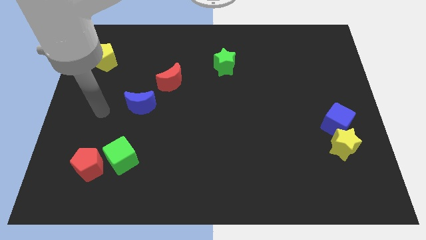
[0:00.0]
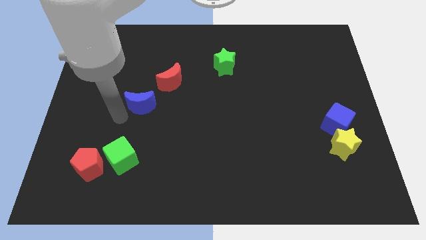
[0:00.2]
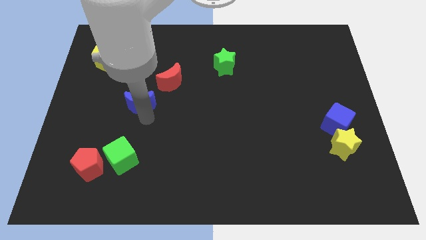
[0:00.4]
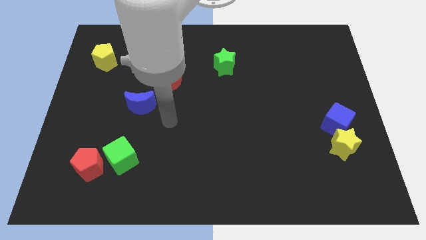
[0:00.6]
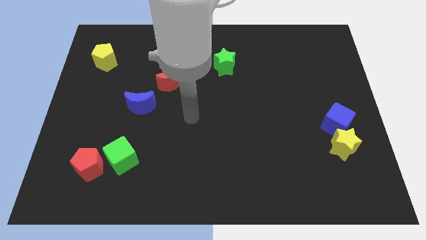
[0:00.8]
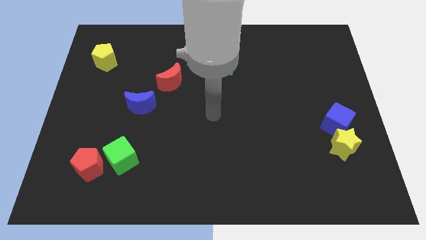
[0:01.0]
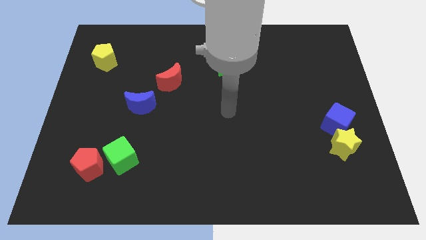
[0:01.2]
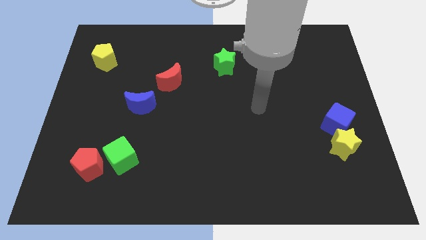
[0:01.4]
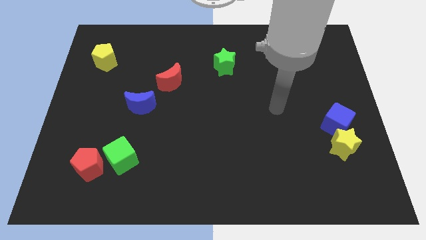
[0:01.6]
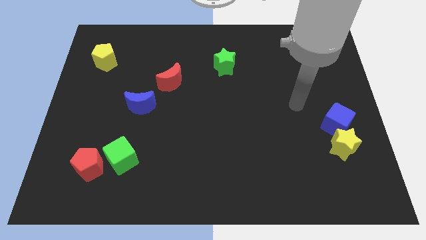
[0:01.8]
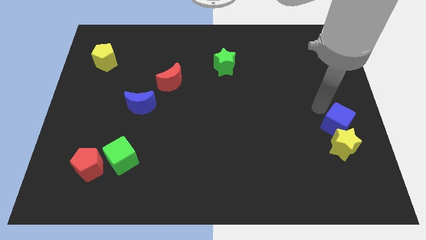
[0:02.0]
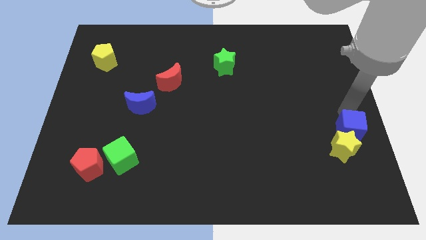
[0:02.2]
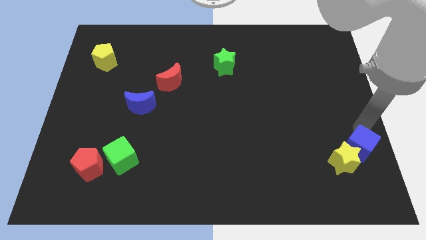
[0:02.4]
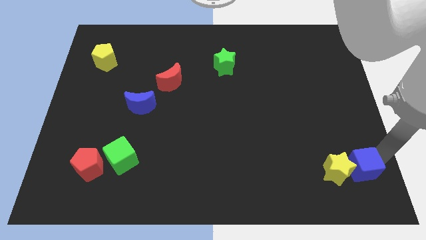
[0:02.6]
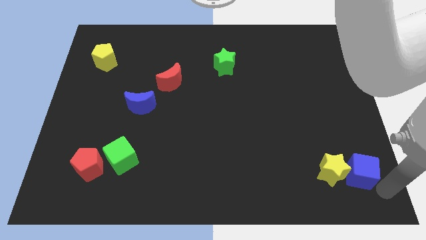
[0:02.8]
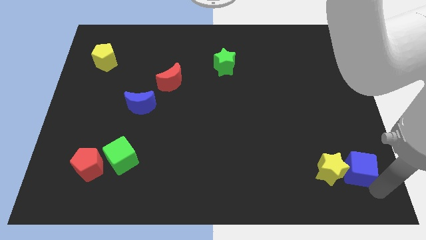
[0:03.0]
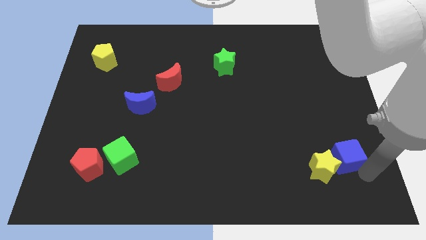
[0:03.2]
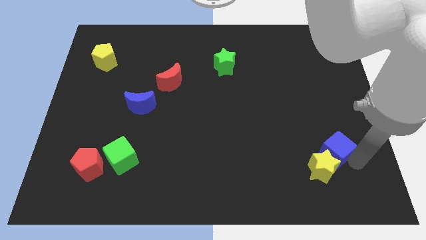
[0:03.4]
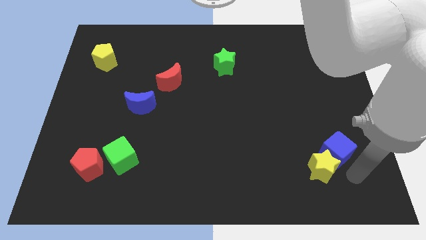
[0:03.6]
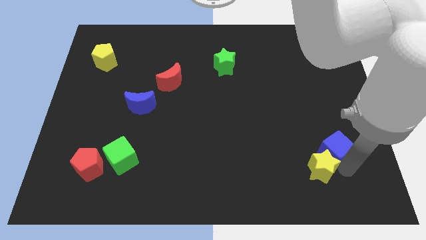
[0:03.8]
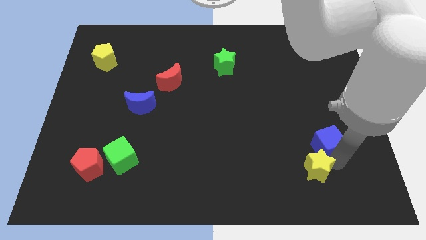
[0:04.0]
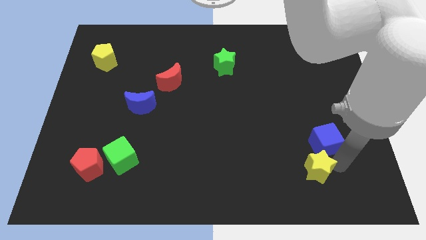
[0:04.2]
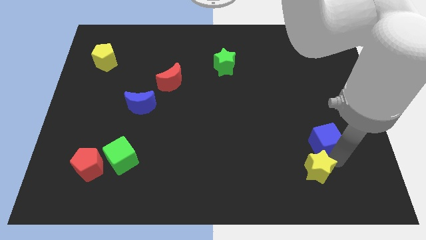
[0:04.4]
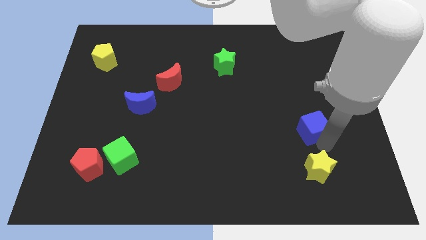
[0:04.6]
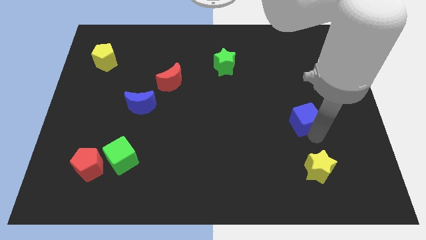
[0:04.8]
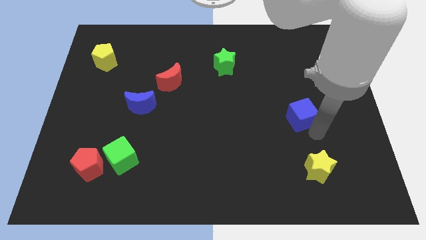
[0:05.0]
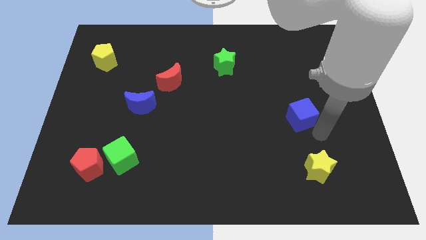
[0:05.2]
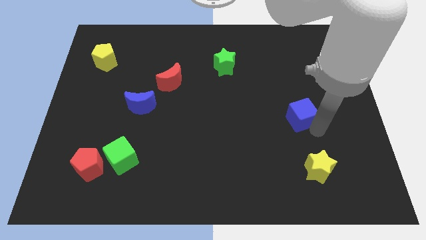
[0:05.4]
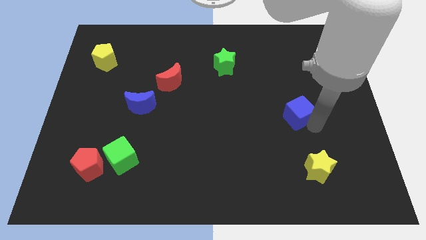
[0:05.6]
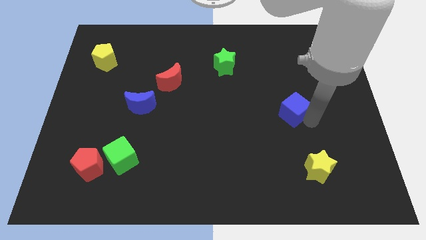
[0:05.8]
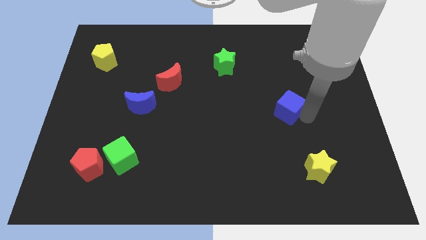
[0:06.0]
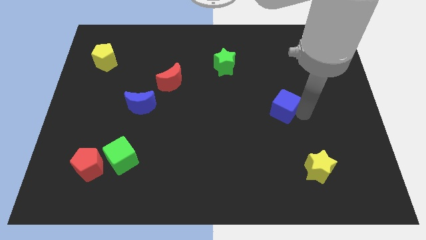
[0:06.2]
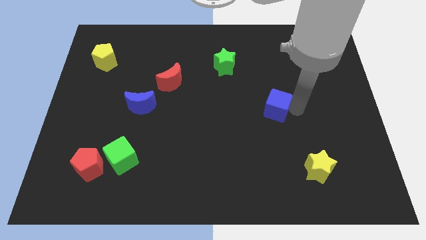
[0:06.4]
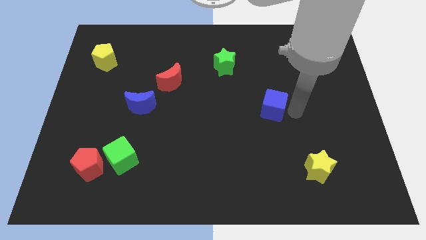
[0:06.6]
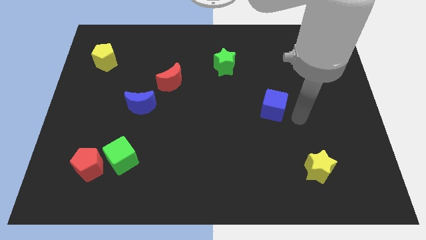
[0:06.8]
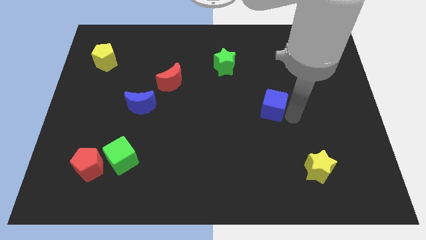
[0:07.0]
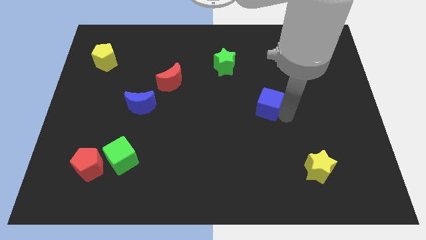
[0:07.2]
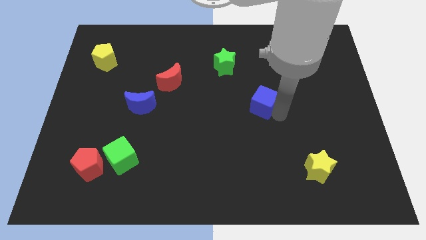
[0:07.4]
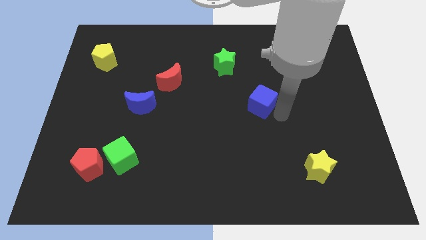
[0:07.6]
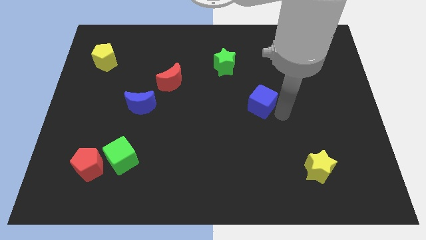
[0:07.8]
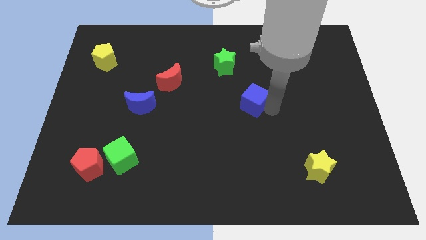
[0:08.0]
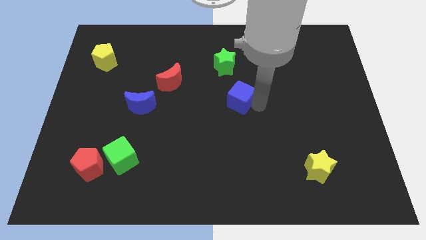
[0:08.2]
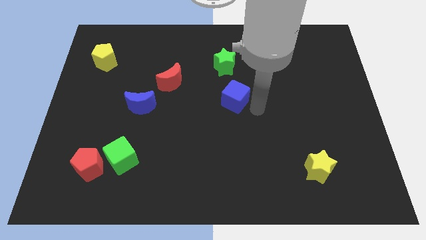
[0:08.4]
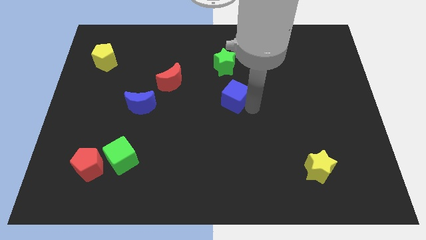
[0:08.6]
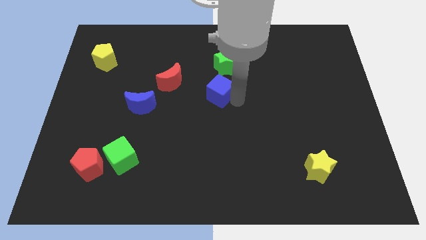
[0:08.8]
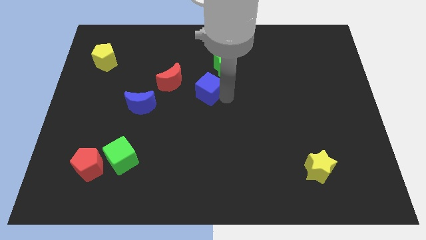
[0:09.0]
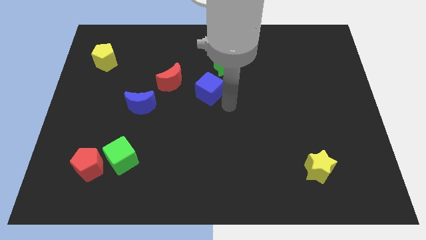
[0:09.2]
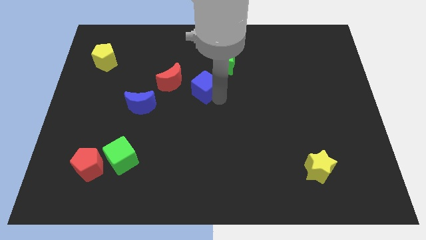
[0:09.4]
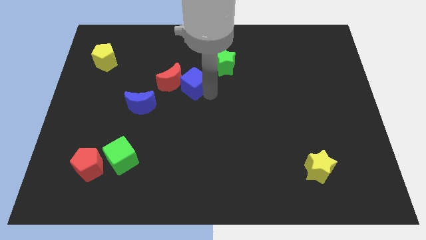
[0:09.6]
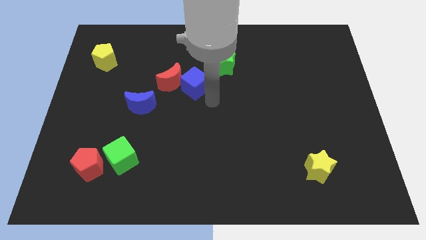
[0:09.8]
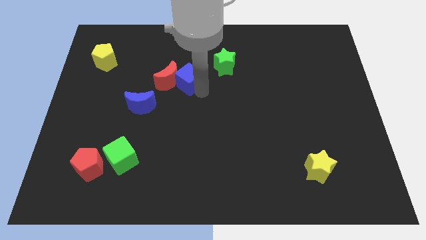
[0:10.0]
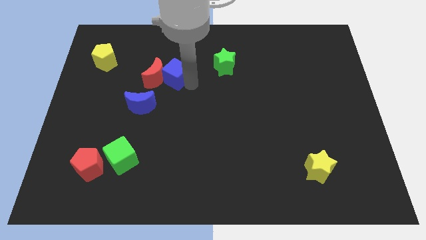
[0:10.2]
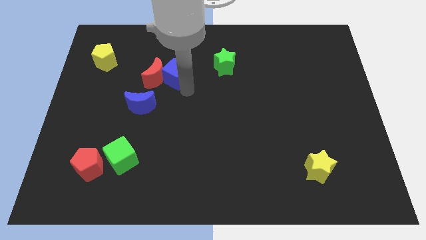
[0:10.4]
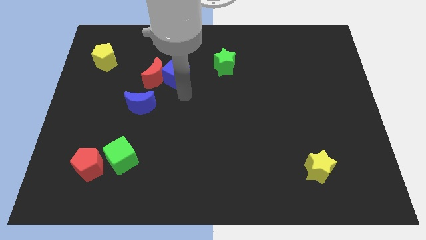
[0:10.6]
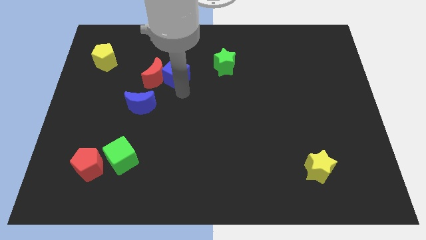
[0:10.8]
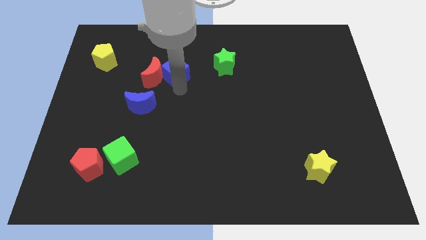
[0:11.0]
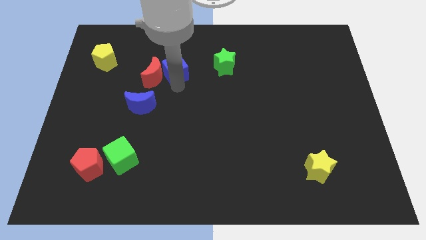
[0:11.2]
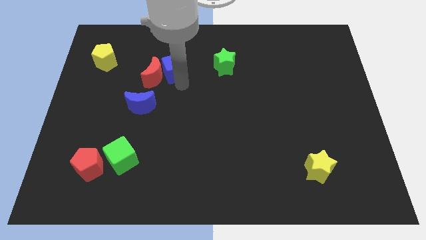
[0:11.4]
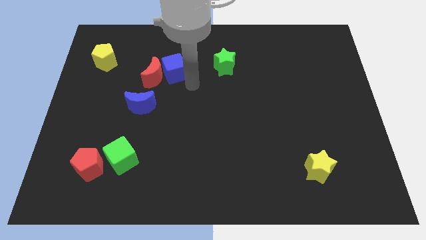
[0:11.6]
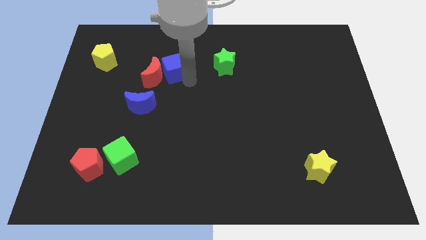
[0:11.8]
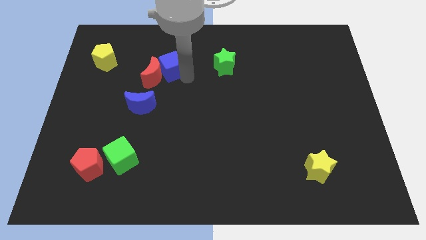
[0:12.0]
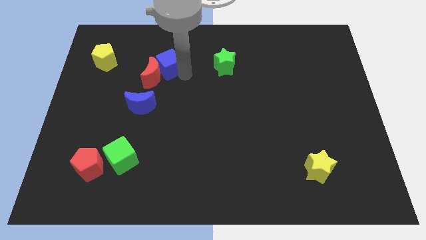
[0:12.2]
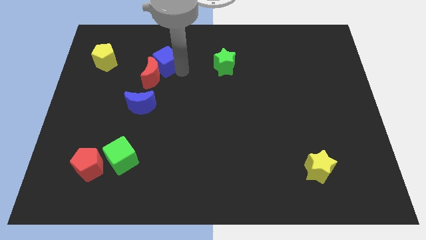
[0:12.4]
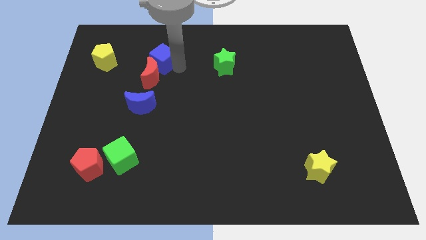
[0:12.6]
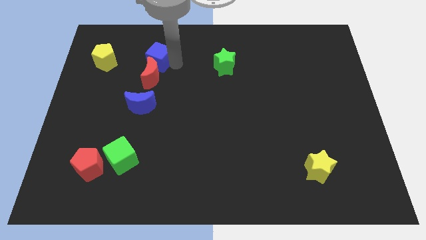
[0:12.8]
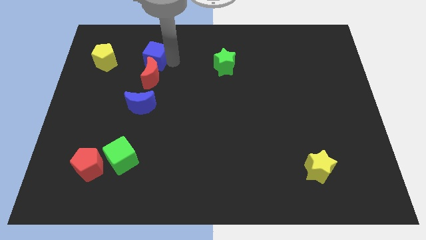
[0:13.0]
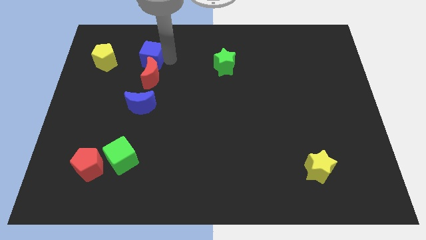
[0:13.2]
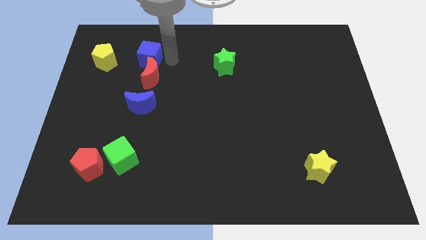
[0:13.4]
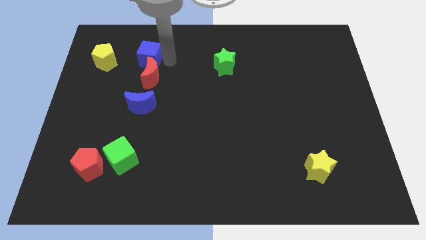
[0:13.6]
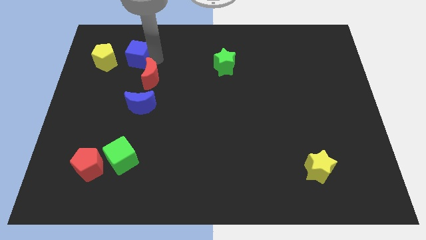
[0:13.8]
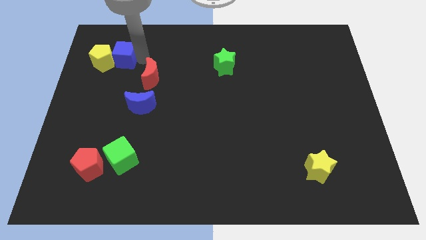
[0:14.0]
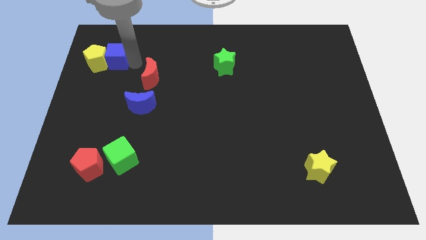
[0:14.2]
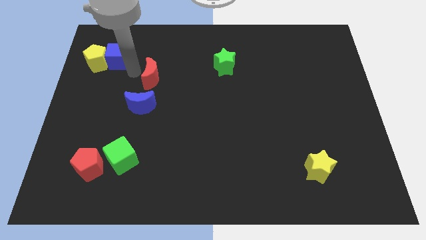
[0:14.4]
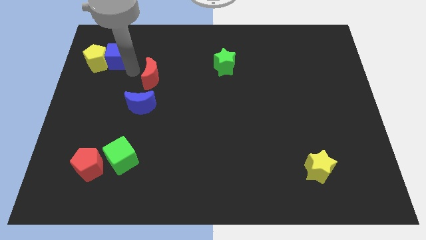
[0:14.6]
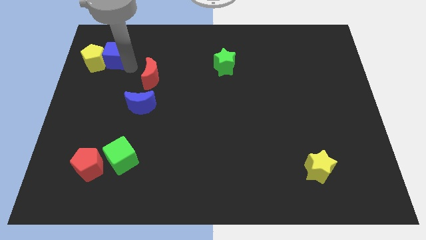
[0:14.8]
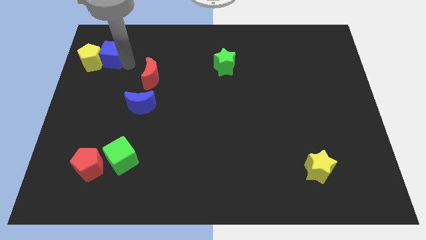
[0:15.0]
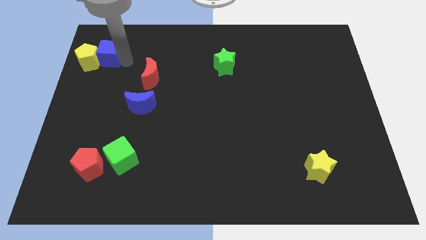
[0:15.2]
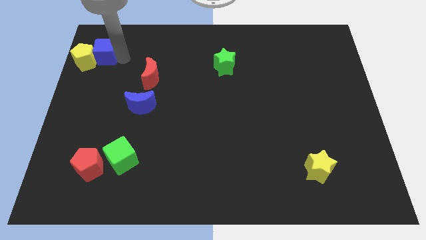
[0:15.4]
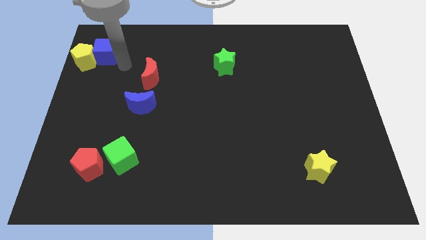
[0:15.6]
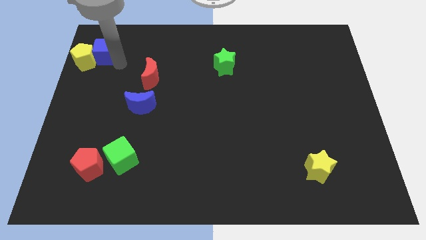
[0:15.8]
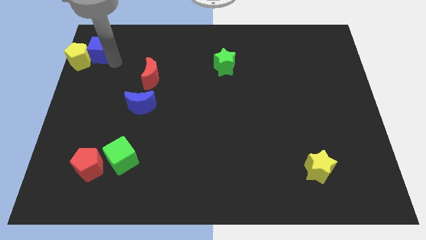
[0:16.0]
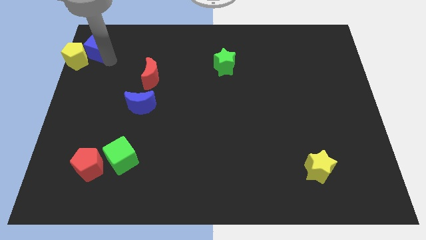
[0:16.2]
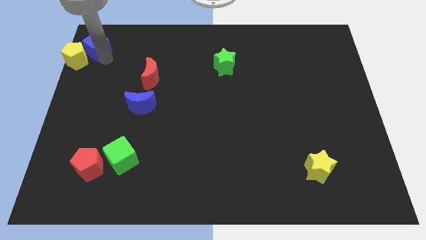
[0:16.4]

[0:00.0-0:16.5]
put the blue cube to the upper left corner
